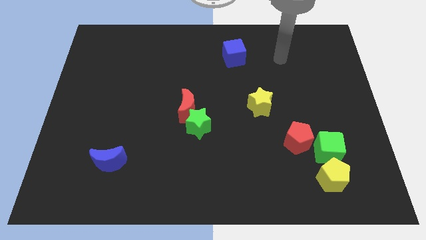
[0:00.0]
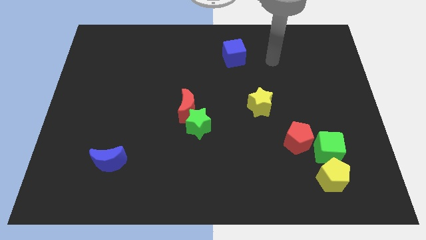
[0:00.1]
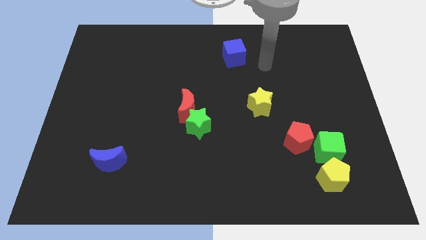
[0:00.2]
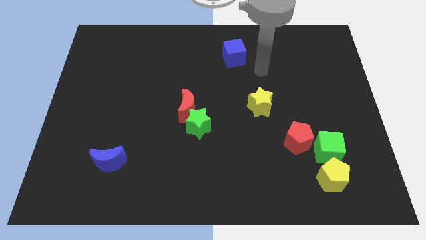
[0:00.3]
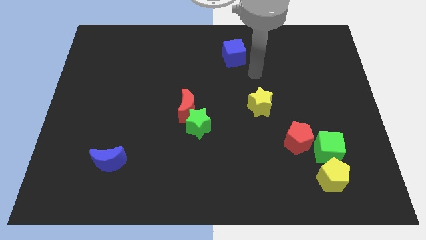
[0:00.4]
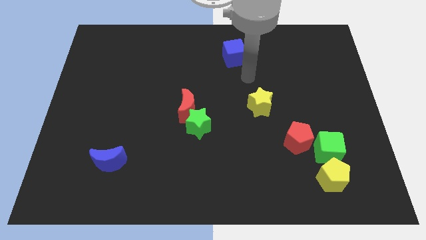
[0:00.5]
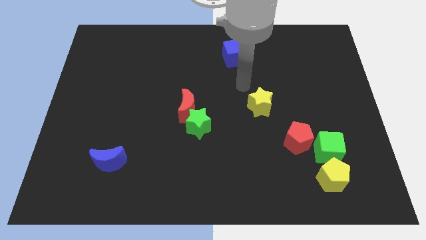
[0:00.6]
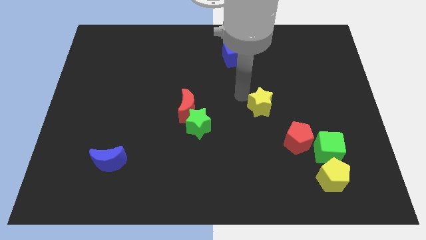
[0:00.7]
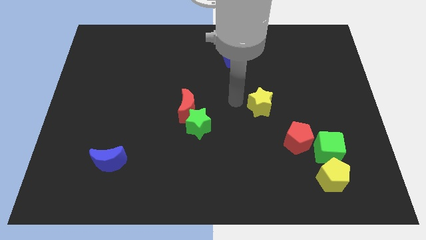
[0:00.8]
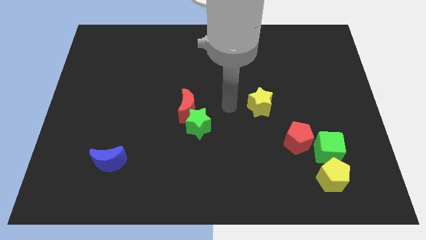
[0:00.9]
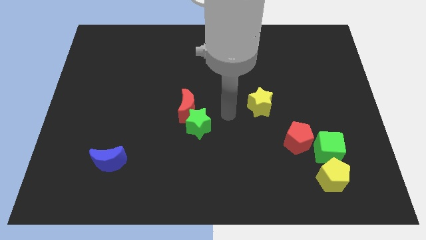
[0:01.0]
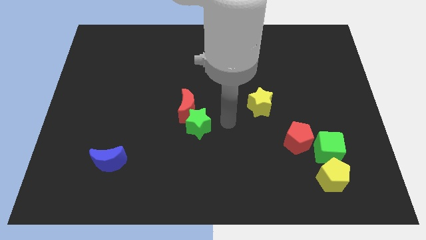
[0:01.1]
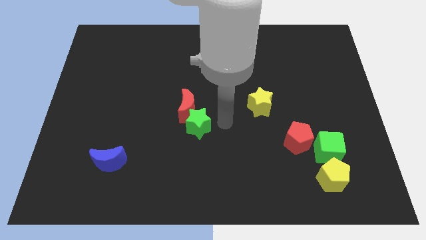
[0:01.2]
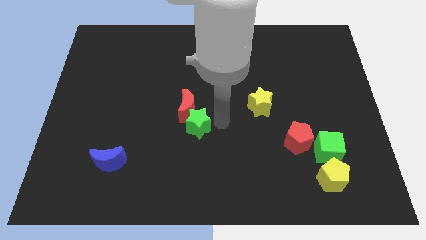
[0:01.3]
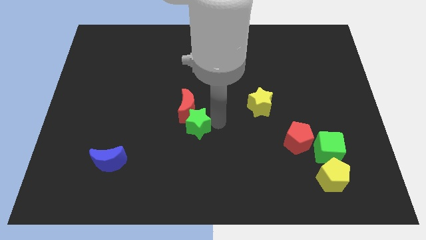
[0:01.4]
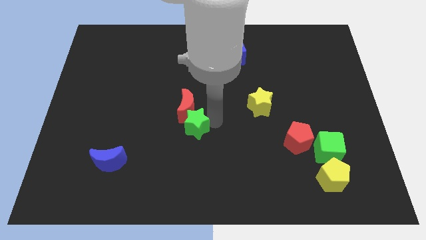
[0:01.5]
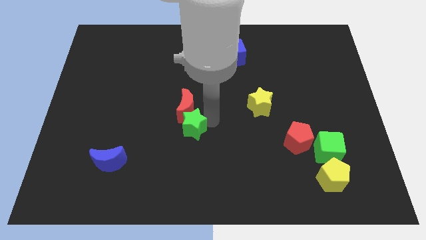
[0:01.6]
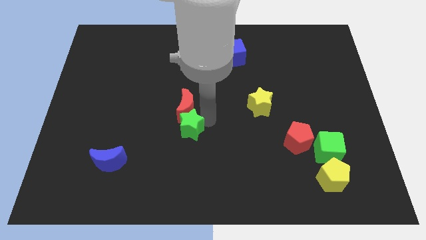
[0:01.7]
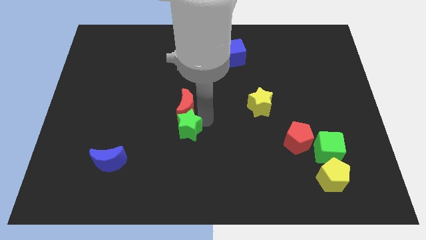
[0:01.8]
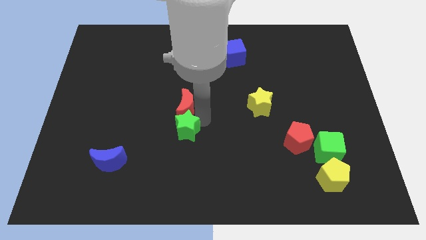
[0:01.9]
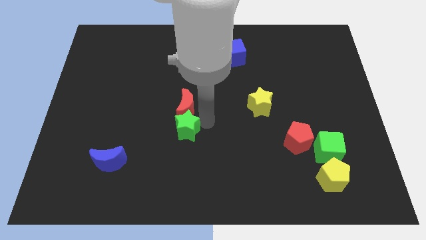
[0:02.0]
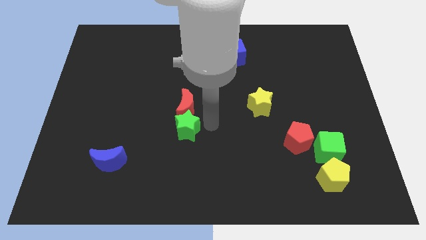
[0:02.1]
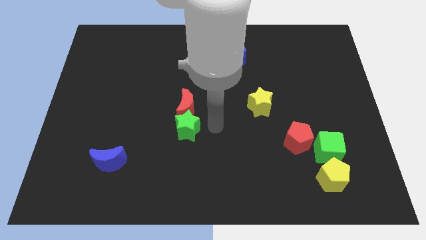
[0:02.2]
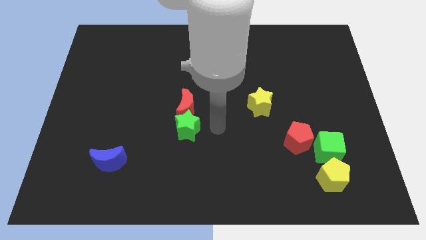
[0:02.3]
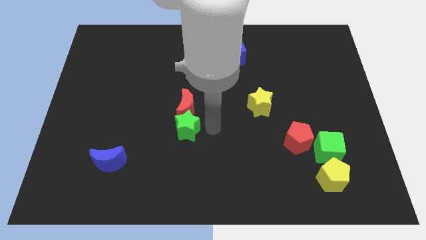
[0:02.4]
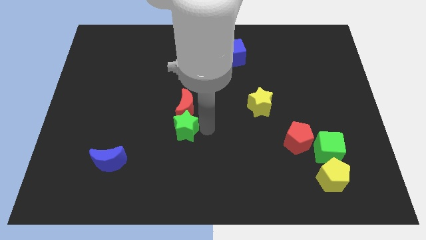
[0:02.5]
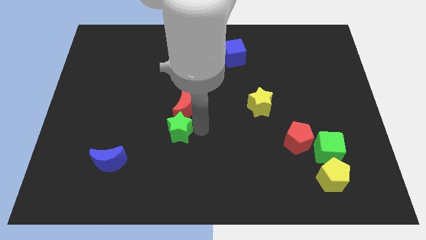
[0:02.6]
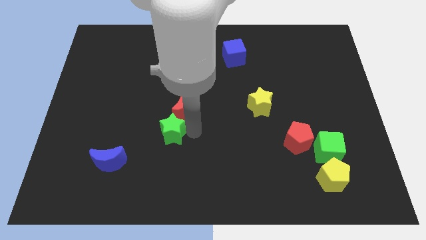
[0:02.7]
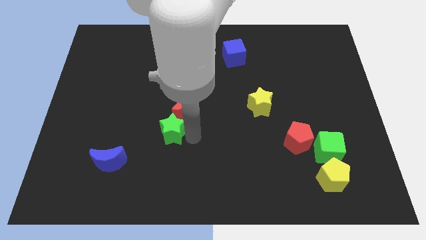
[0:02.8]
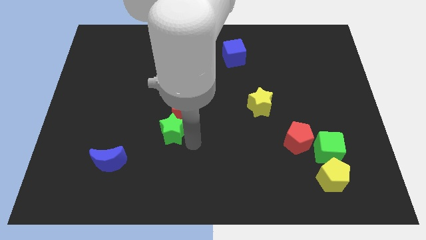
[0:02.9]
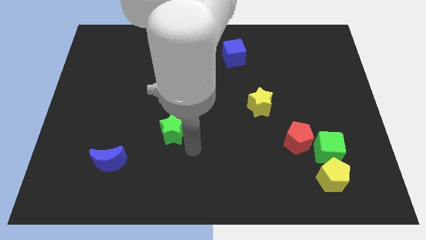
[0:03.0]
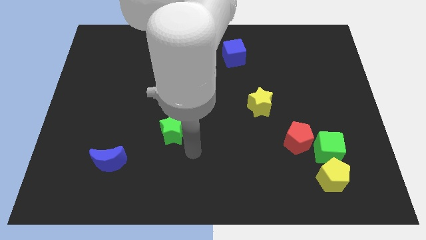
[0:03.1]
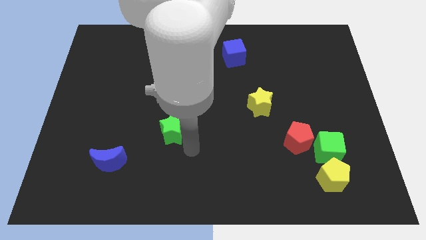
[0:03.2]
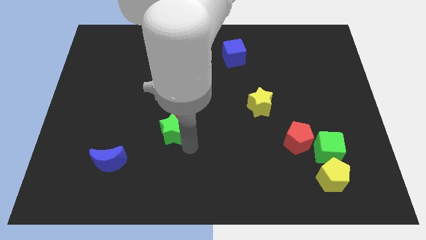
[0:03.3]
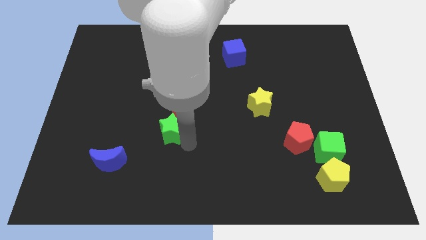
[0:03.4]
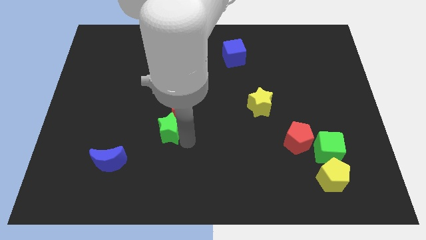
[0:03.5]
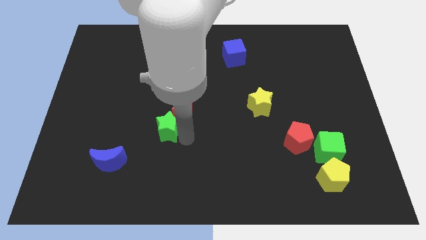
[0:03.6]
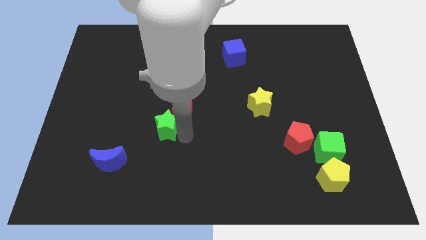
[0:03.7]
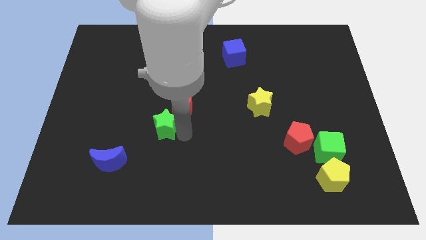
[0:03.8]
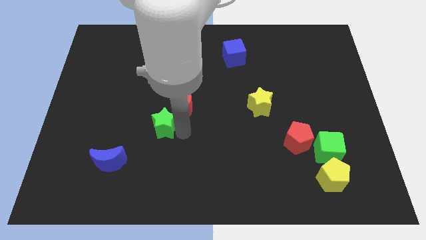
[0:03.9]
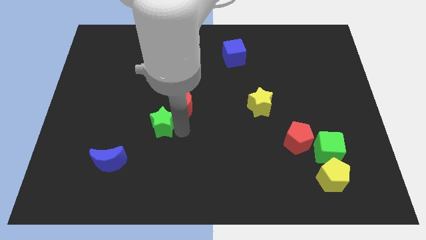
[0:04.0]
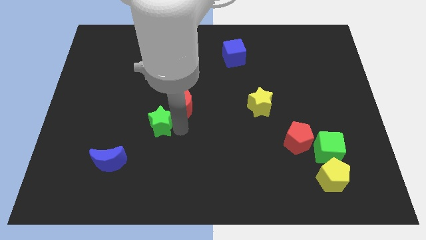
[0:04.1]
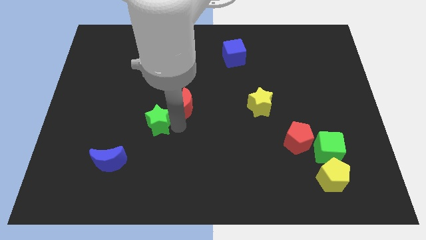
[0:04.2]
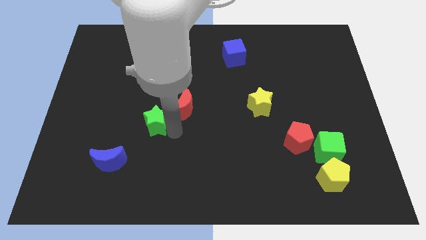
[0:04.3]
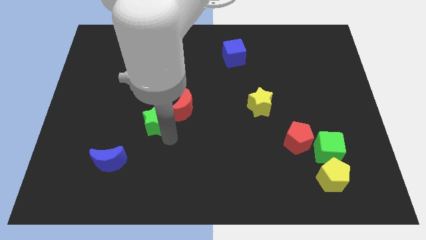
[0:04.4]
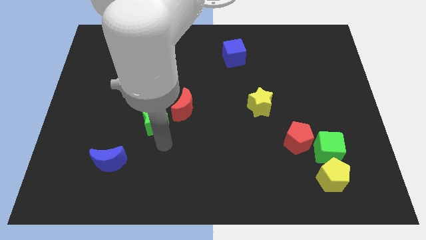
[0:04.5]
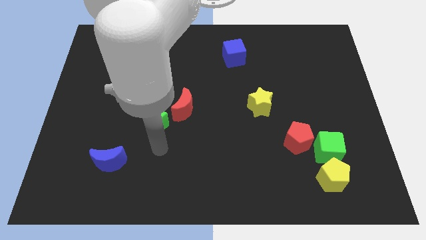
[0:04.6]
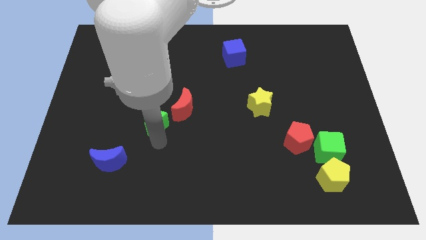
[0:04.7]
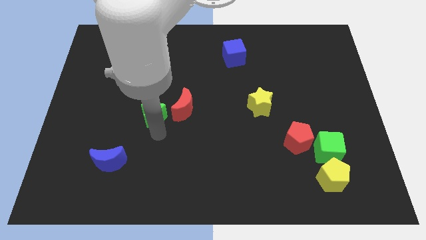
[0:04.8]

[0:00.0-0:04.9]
slide the green star slightly up and then to the left

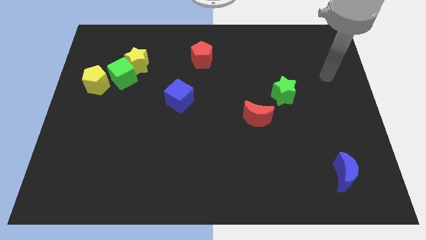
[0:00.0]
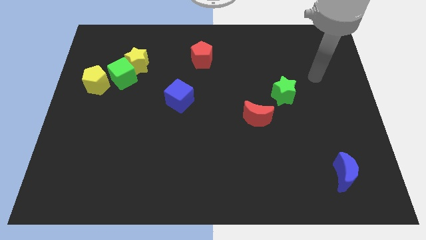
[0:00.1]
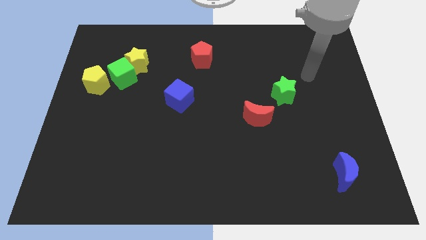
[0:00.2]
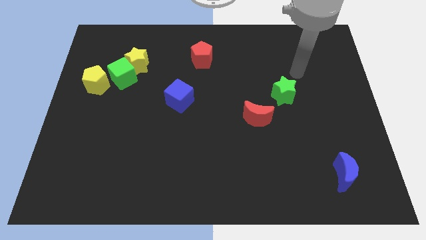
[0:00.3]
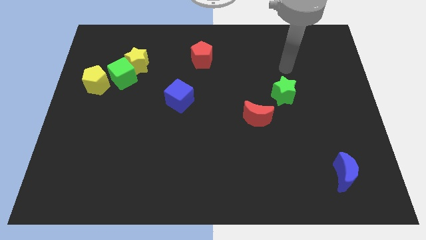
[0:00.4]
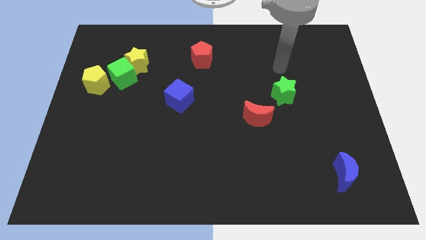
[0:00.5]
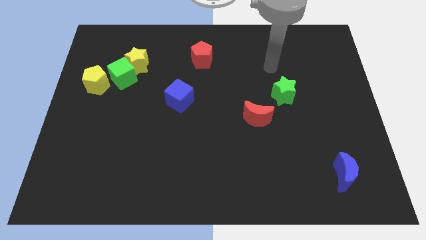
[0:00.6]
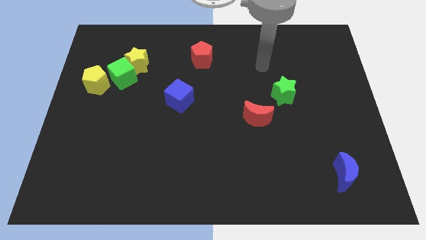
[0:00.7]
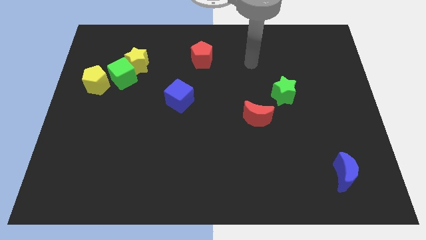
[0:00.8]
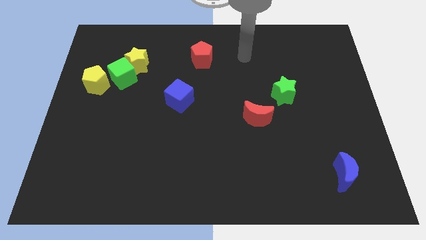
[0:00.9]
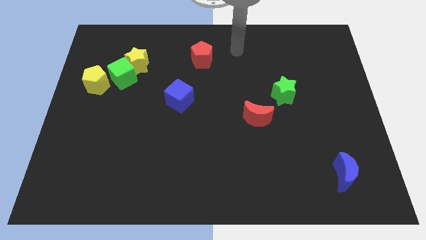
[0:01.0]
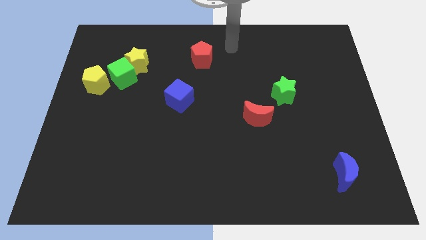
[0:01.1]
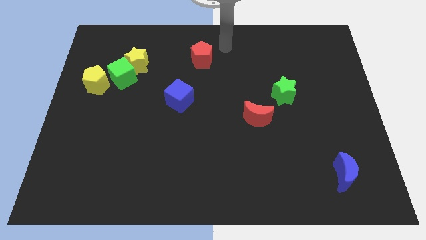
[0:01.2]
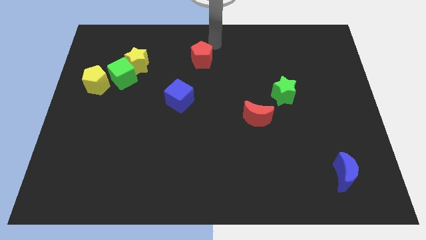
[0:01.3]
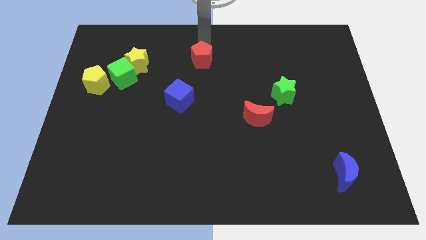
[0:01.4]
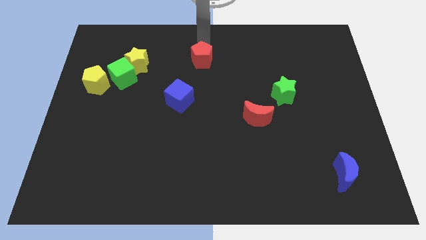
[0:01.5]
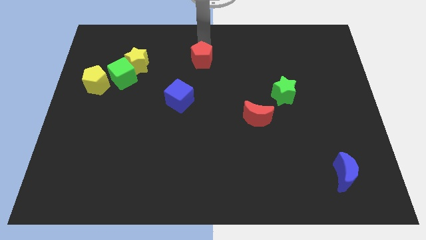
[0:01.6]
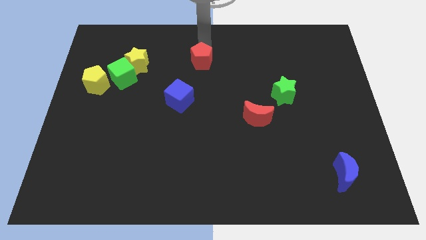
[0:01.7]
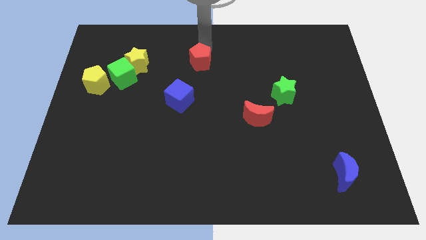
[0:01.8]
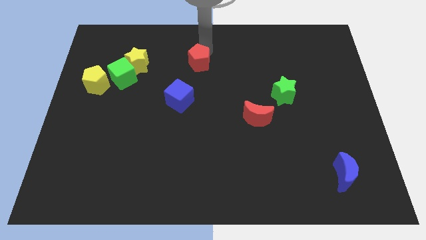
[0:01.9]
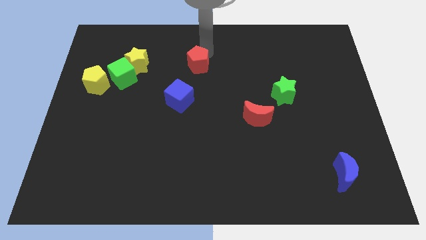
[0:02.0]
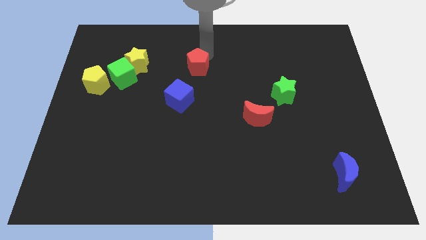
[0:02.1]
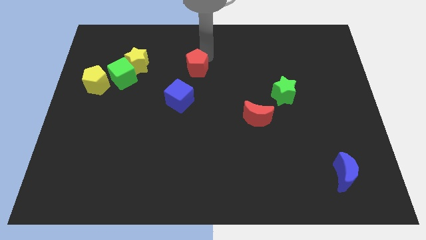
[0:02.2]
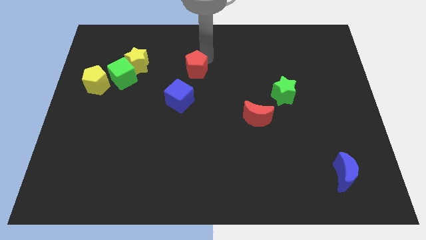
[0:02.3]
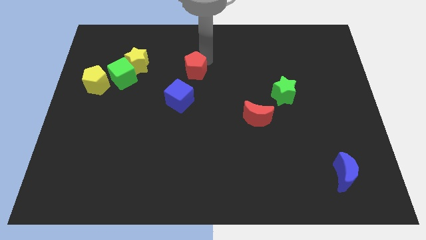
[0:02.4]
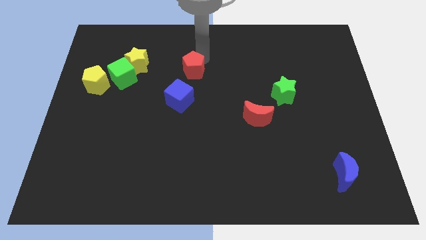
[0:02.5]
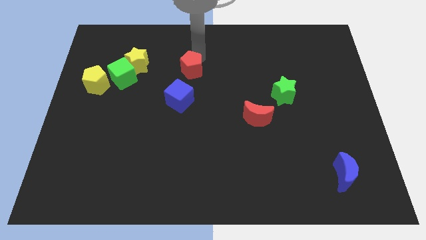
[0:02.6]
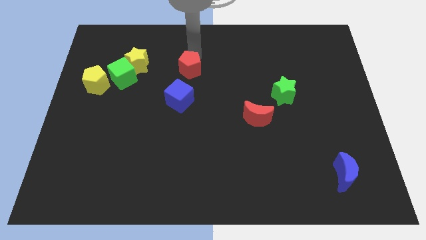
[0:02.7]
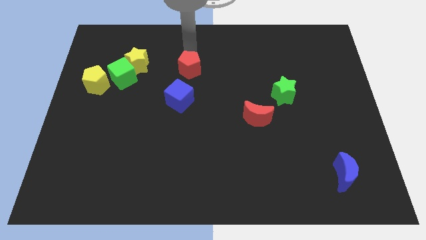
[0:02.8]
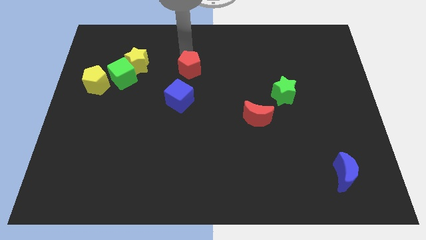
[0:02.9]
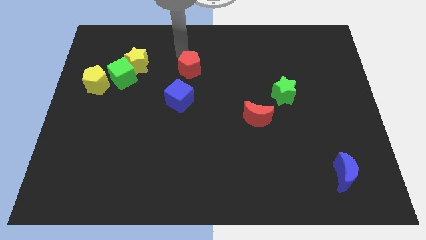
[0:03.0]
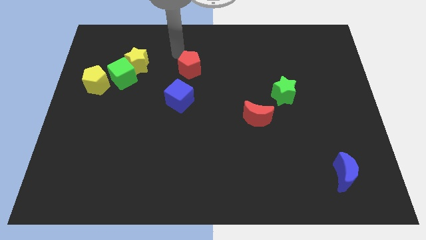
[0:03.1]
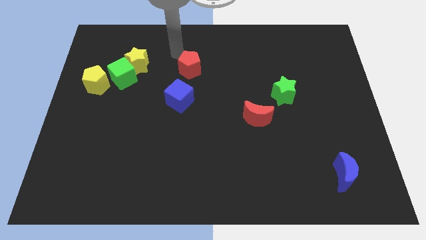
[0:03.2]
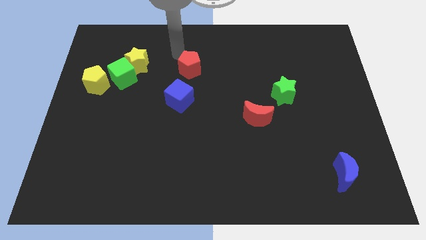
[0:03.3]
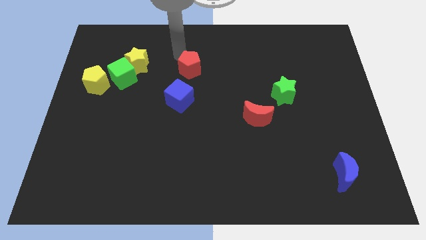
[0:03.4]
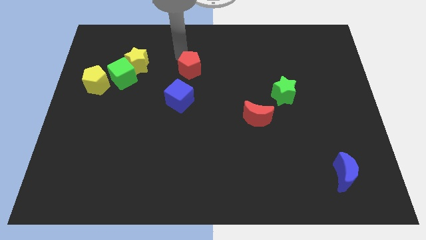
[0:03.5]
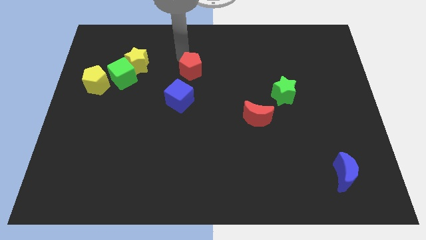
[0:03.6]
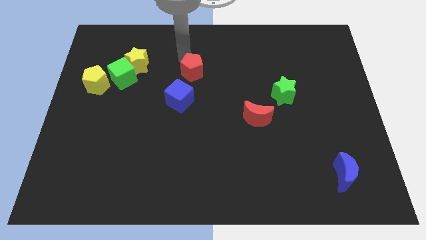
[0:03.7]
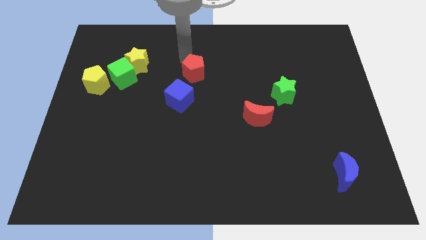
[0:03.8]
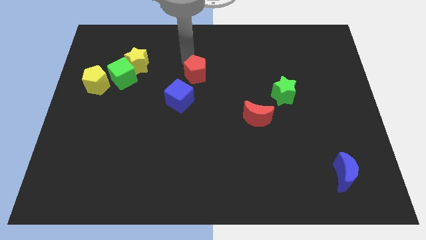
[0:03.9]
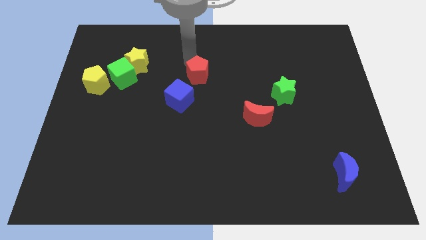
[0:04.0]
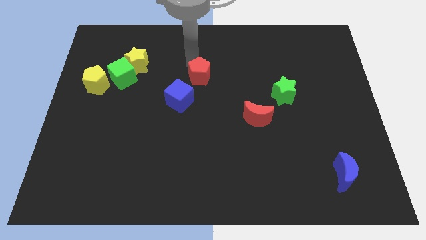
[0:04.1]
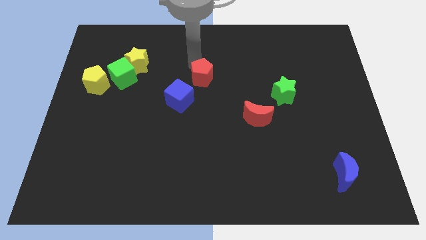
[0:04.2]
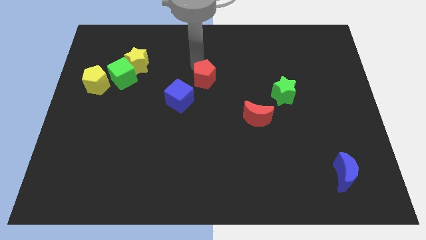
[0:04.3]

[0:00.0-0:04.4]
move the red pentagon somewhat downwards
